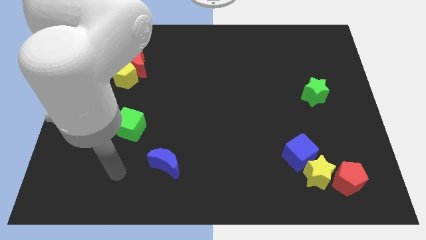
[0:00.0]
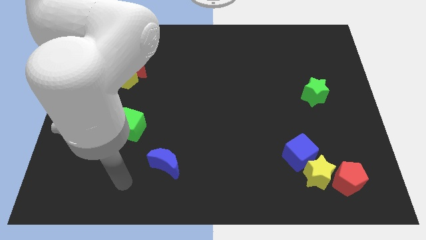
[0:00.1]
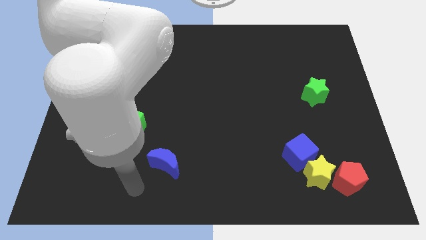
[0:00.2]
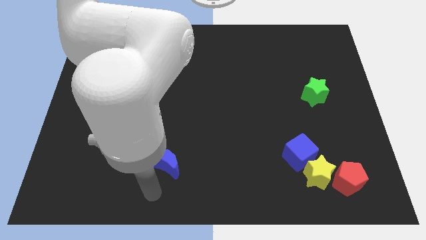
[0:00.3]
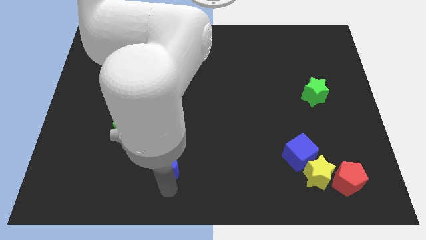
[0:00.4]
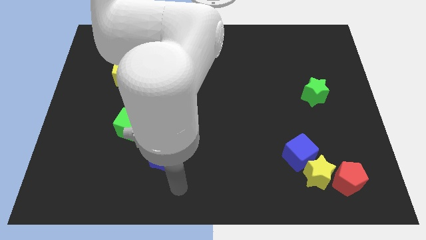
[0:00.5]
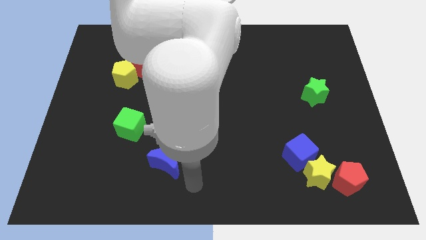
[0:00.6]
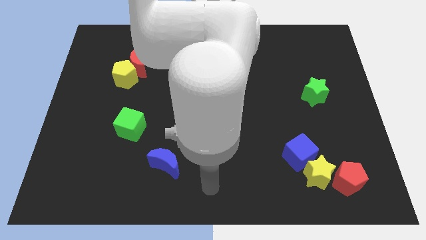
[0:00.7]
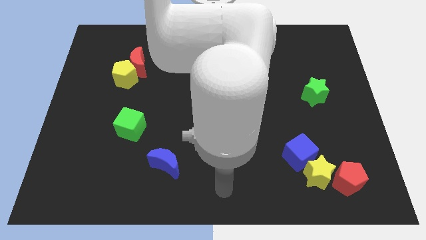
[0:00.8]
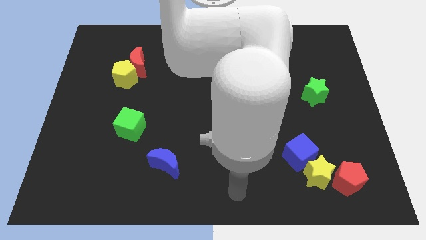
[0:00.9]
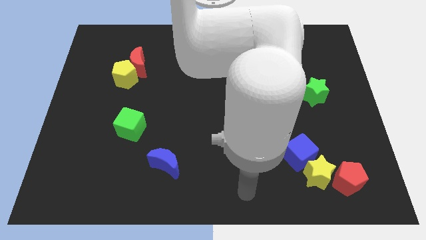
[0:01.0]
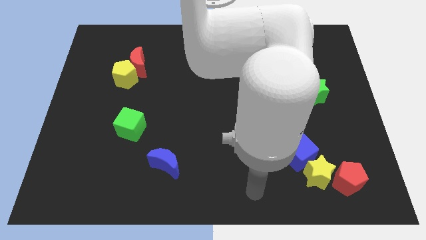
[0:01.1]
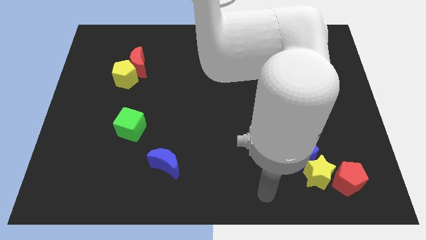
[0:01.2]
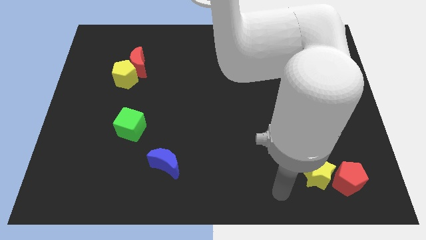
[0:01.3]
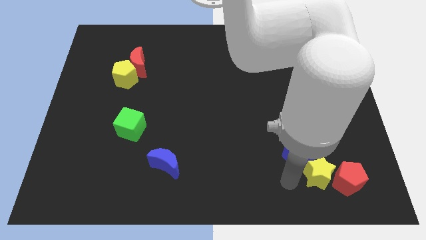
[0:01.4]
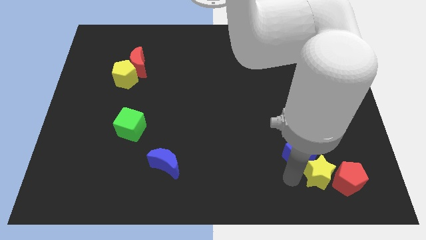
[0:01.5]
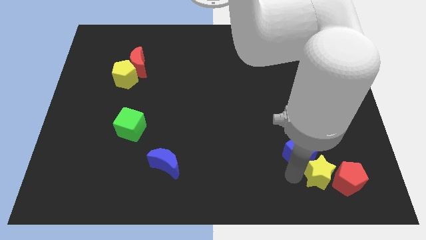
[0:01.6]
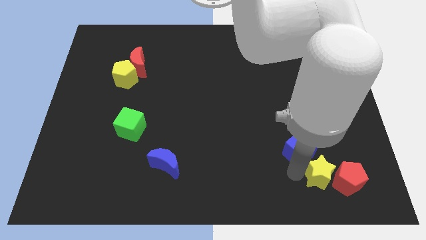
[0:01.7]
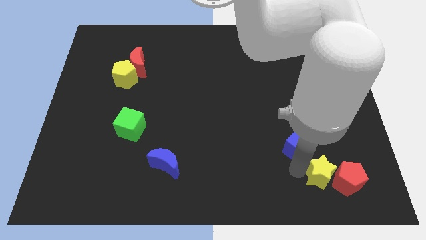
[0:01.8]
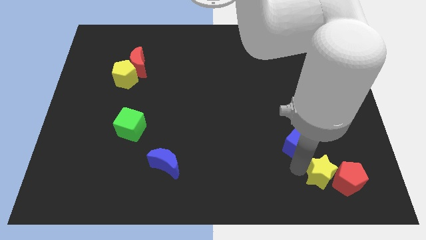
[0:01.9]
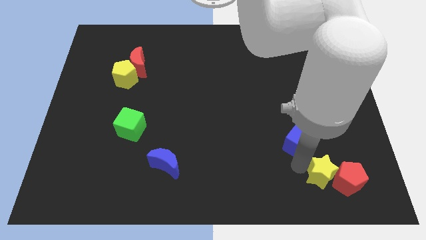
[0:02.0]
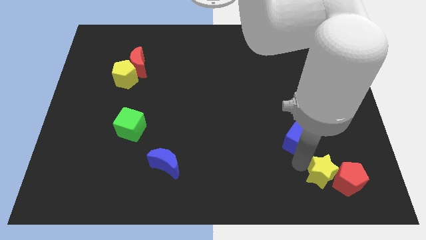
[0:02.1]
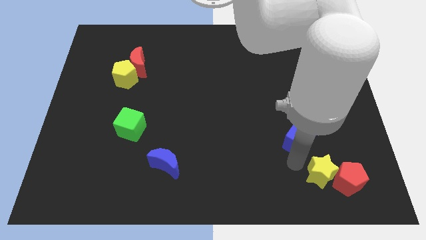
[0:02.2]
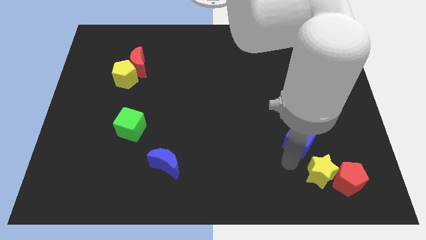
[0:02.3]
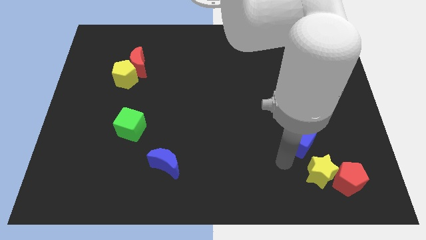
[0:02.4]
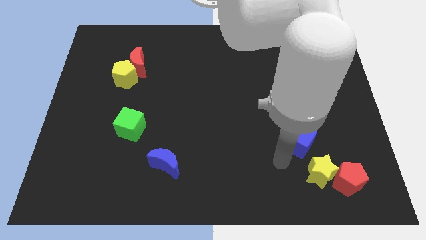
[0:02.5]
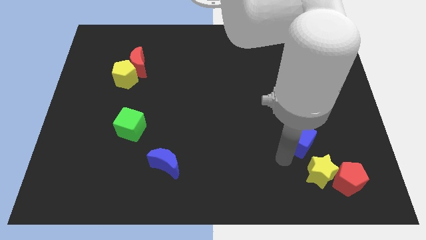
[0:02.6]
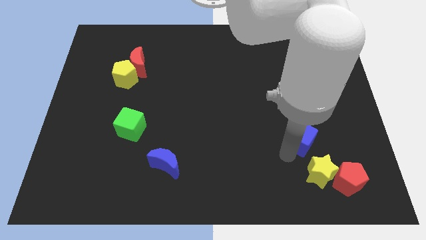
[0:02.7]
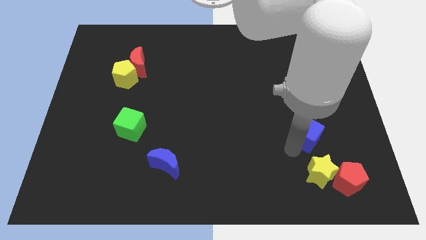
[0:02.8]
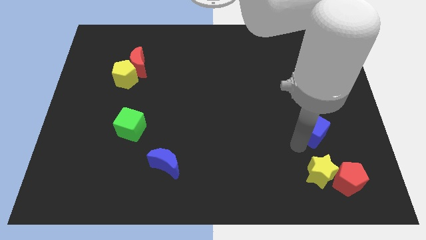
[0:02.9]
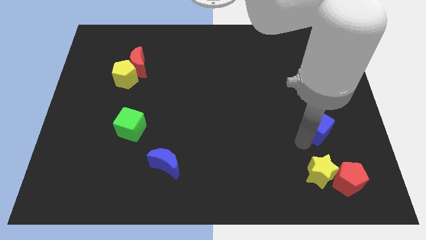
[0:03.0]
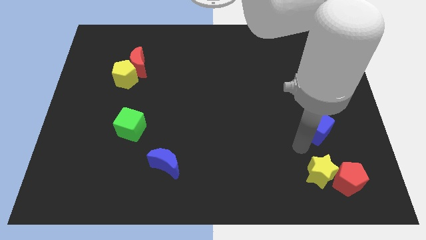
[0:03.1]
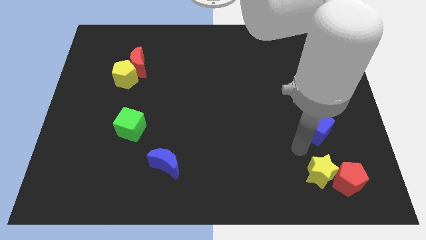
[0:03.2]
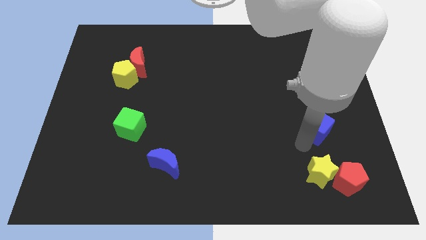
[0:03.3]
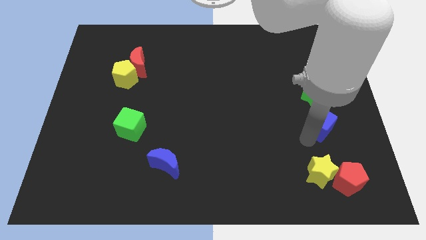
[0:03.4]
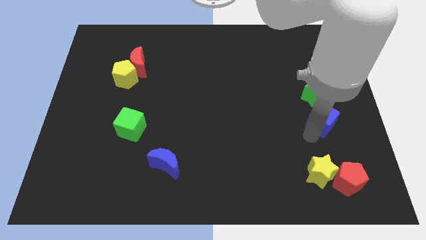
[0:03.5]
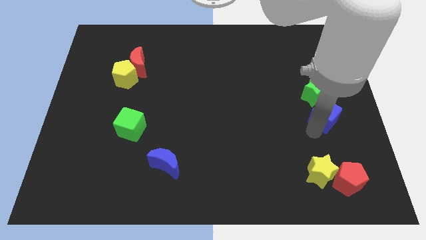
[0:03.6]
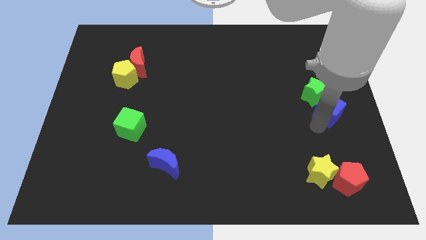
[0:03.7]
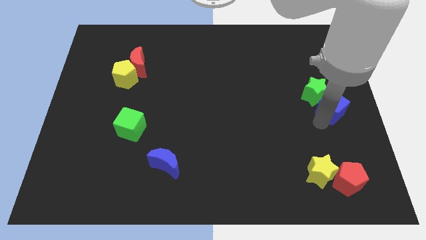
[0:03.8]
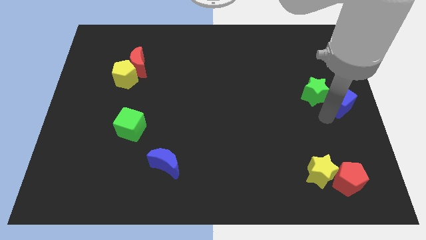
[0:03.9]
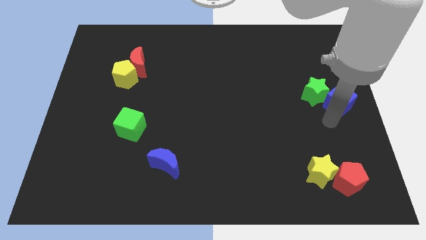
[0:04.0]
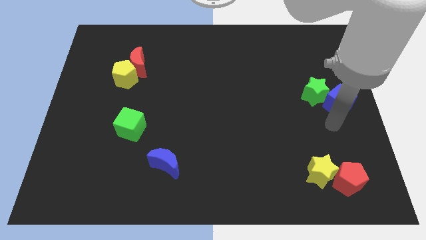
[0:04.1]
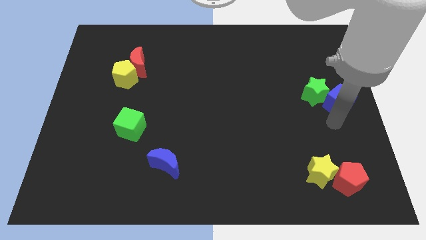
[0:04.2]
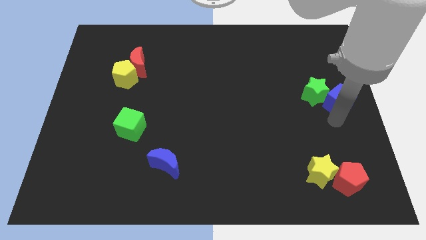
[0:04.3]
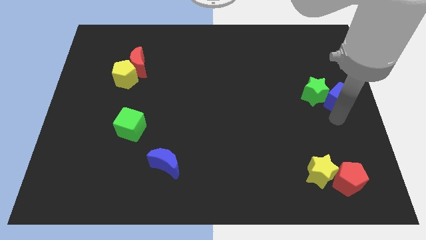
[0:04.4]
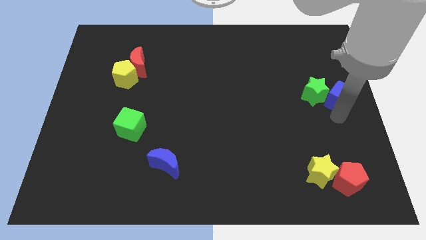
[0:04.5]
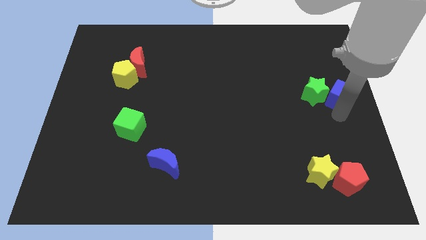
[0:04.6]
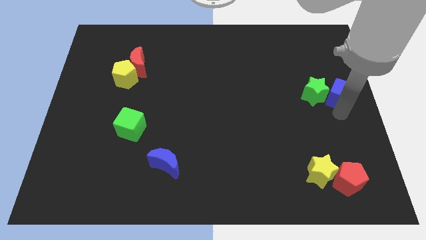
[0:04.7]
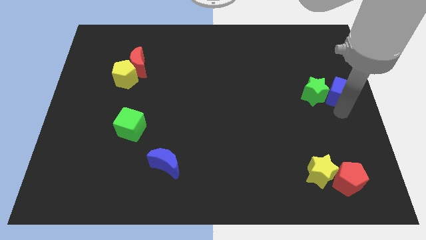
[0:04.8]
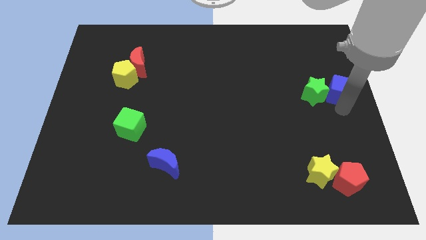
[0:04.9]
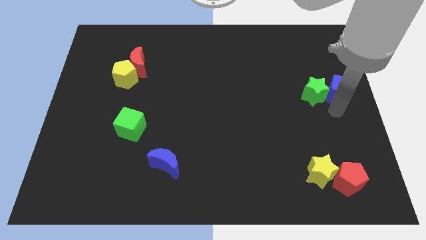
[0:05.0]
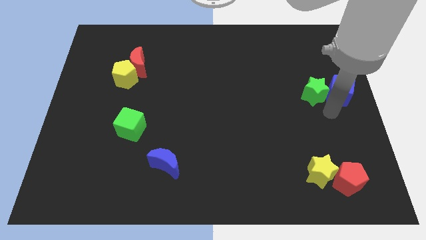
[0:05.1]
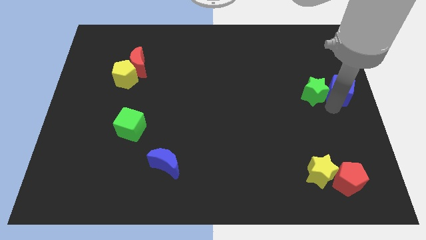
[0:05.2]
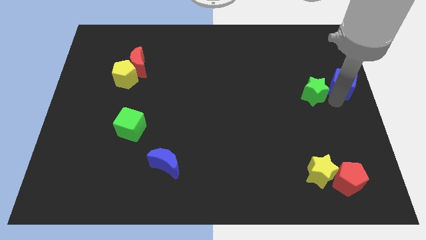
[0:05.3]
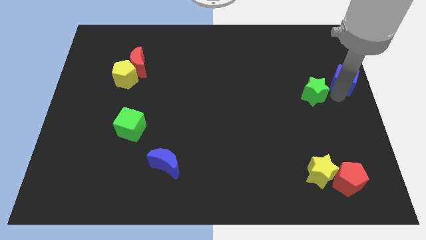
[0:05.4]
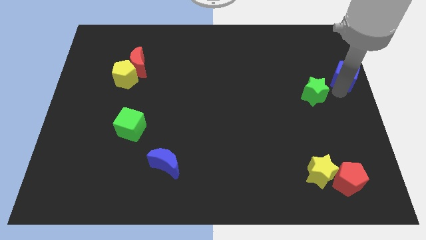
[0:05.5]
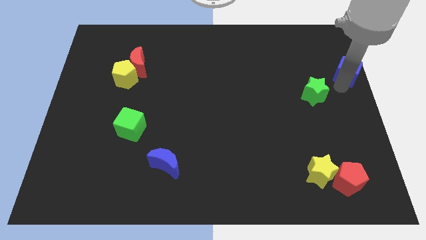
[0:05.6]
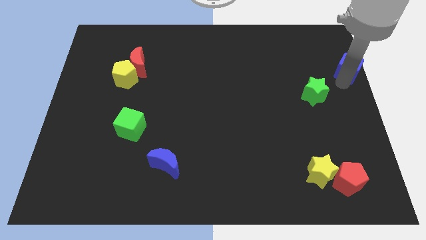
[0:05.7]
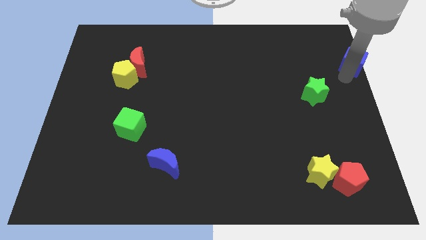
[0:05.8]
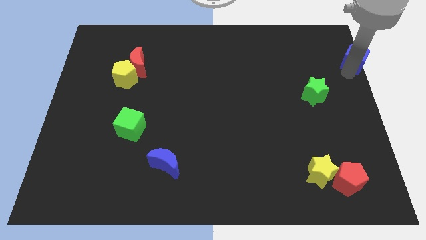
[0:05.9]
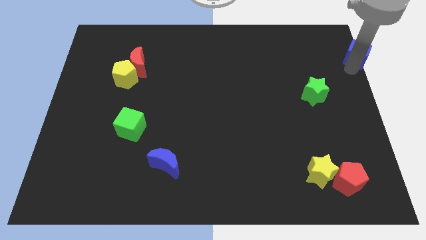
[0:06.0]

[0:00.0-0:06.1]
put the blue cube to the top right corner
